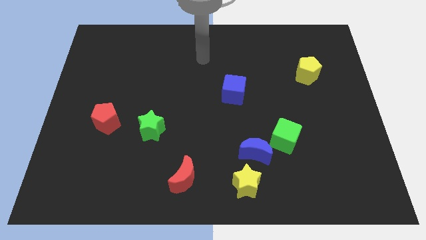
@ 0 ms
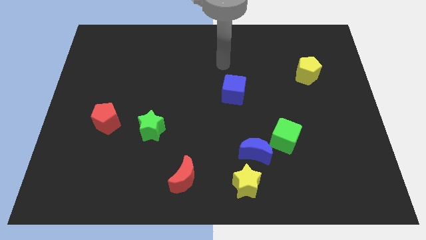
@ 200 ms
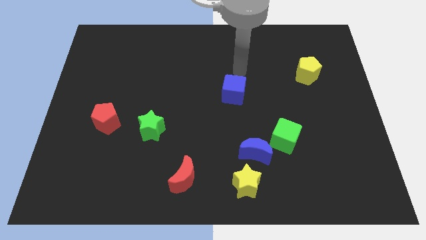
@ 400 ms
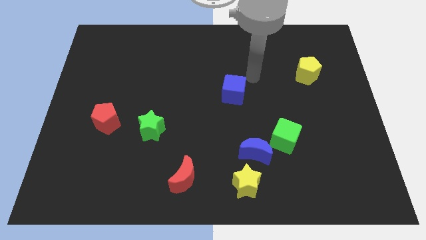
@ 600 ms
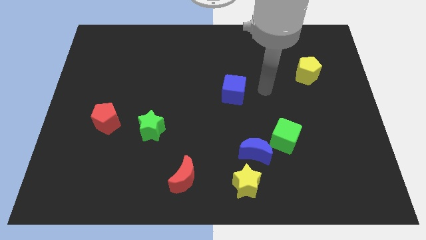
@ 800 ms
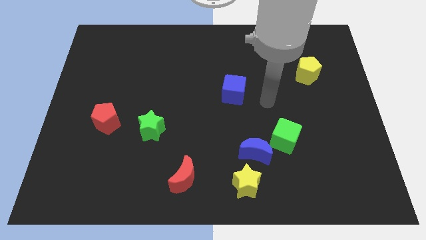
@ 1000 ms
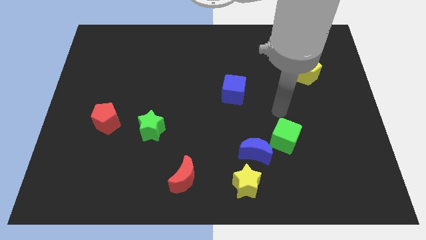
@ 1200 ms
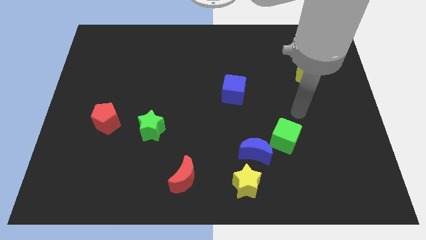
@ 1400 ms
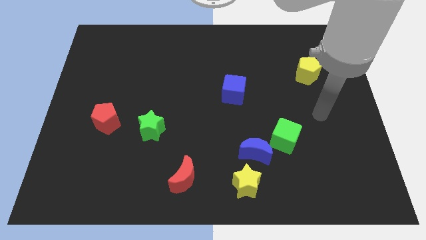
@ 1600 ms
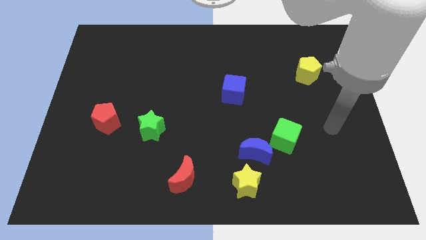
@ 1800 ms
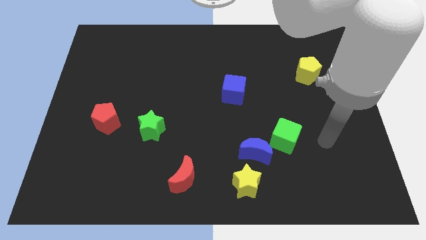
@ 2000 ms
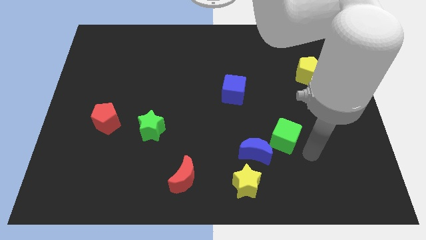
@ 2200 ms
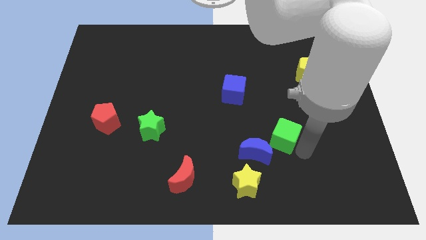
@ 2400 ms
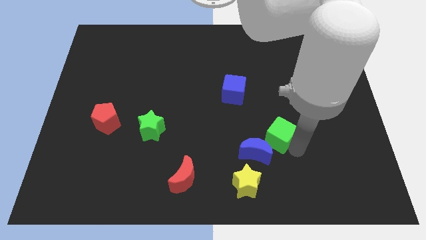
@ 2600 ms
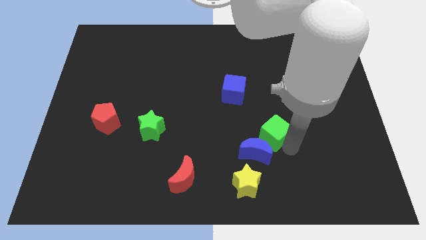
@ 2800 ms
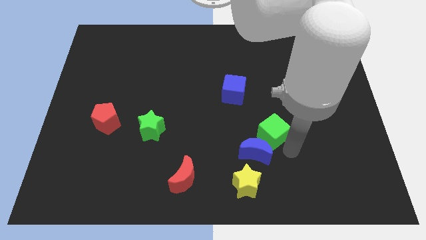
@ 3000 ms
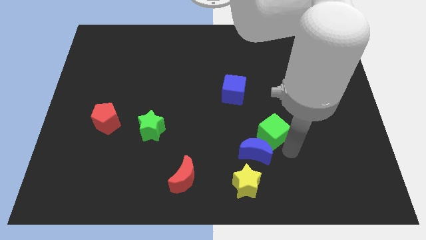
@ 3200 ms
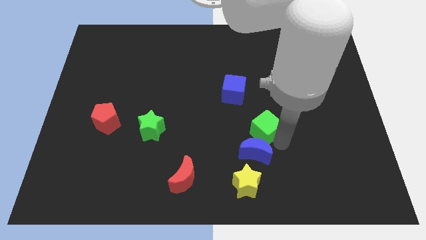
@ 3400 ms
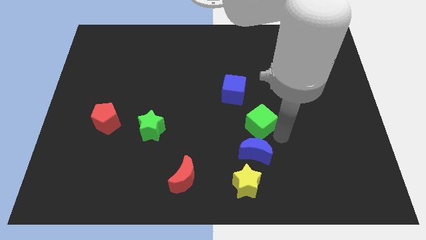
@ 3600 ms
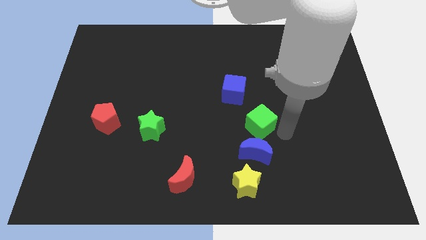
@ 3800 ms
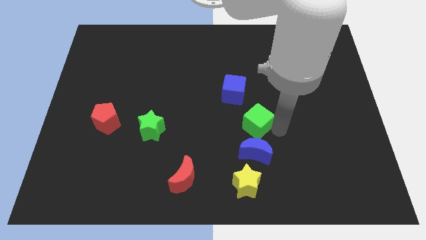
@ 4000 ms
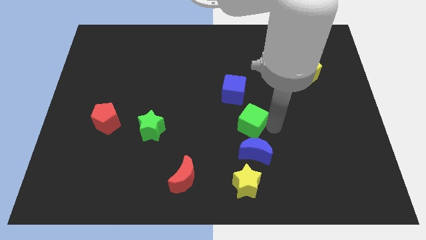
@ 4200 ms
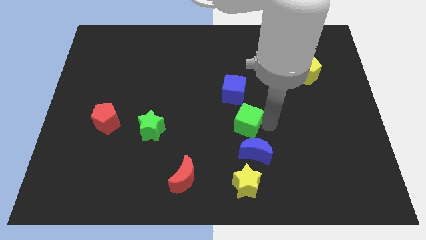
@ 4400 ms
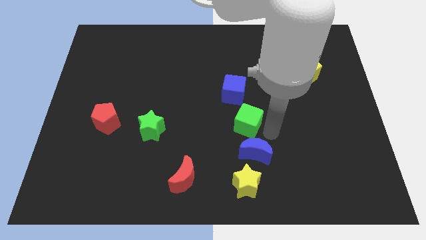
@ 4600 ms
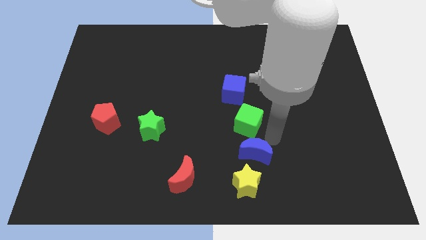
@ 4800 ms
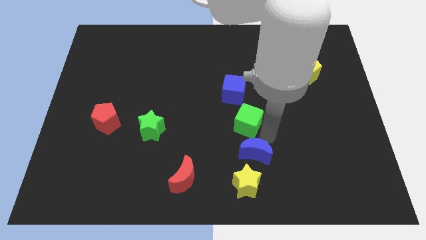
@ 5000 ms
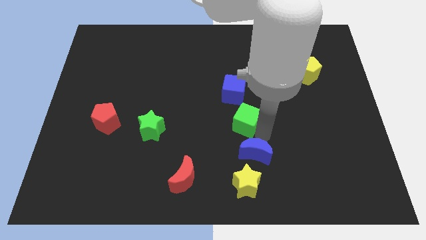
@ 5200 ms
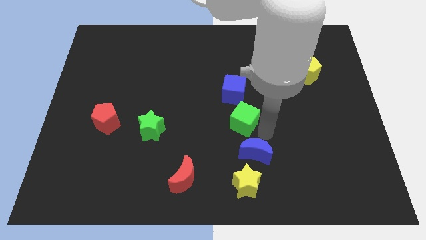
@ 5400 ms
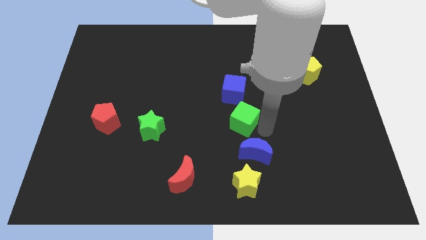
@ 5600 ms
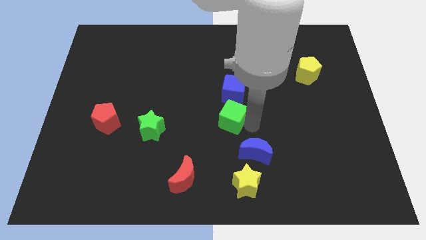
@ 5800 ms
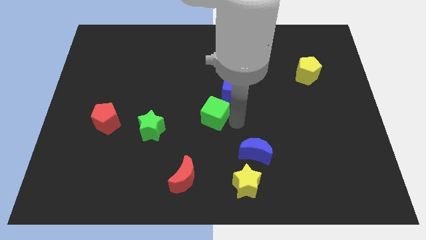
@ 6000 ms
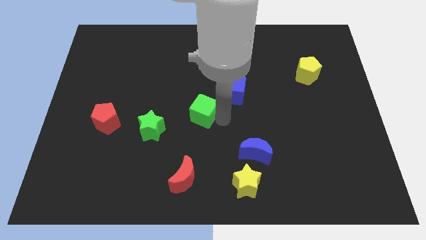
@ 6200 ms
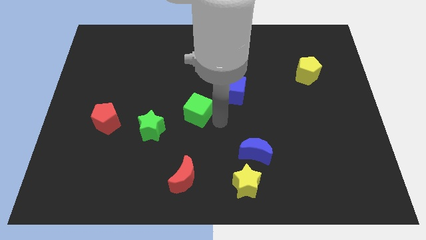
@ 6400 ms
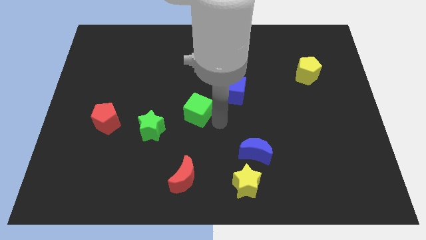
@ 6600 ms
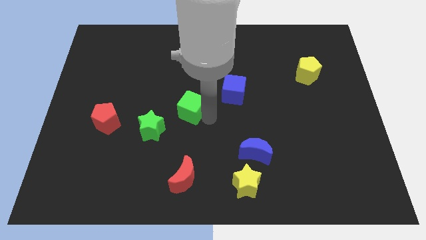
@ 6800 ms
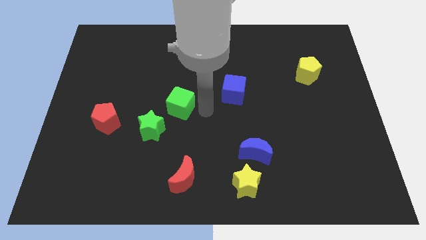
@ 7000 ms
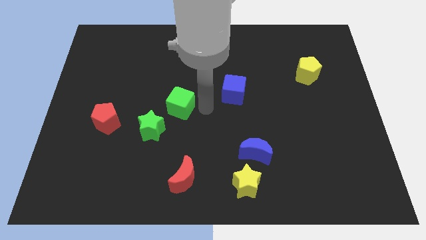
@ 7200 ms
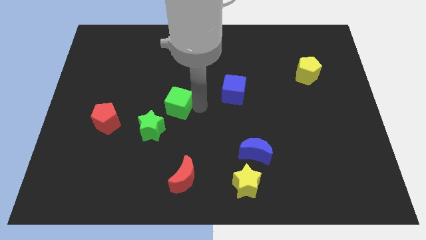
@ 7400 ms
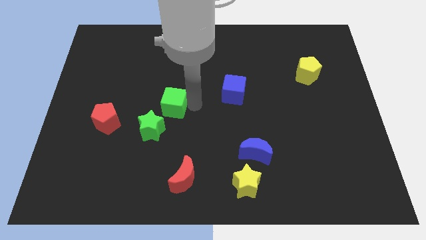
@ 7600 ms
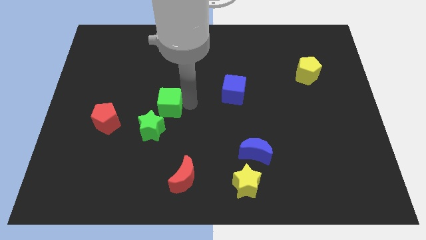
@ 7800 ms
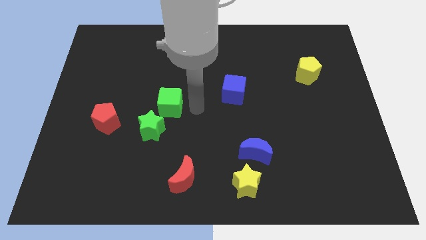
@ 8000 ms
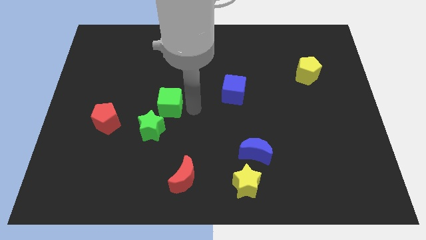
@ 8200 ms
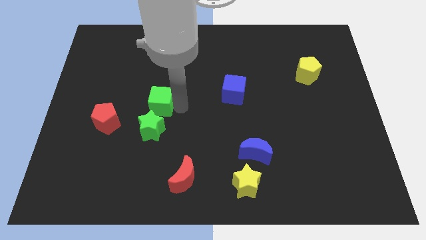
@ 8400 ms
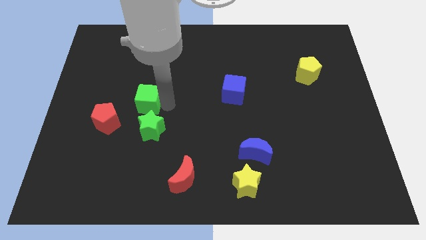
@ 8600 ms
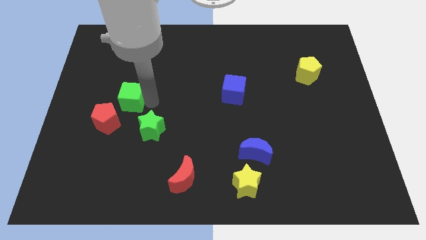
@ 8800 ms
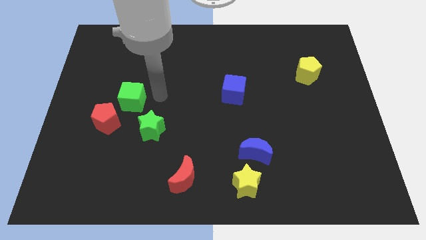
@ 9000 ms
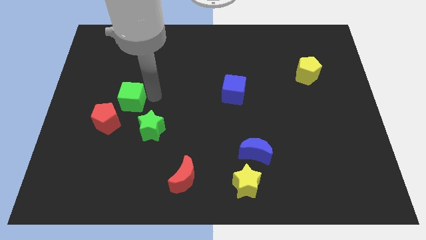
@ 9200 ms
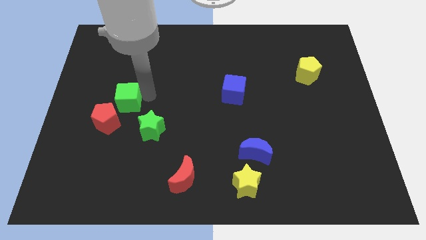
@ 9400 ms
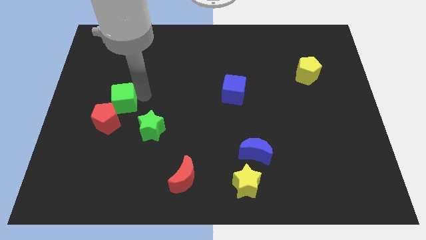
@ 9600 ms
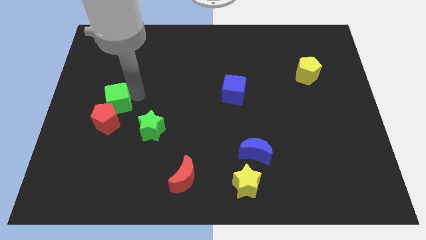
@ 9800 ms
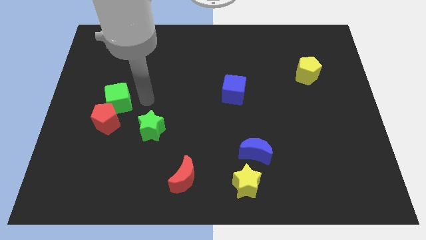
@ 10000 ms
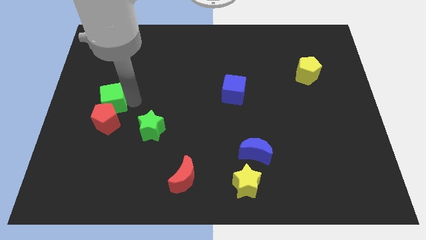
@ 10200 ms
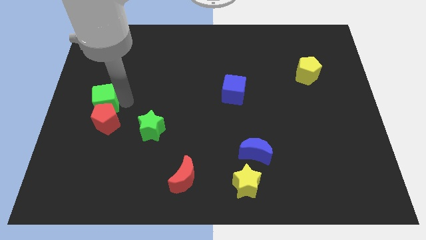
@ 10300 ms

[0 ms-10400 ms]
put the green cube to the center left

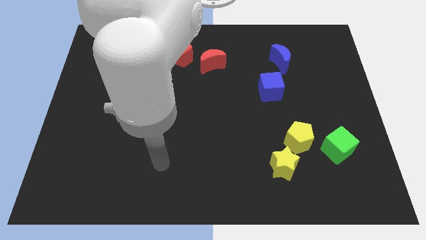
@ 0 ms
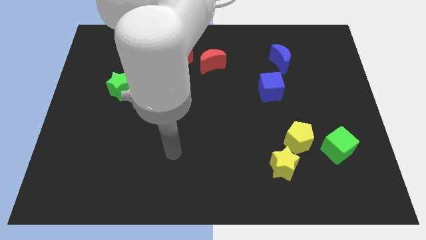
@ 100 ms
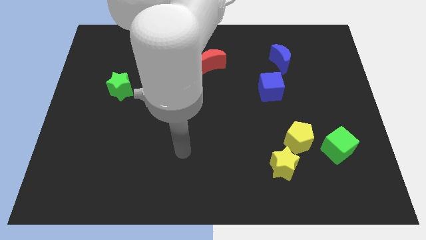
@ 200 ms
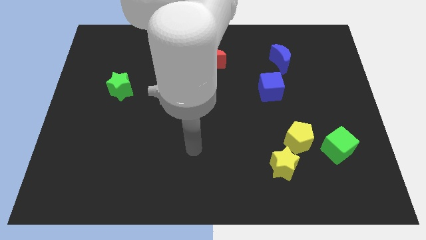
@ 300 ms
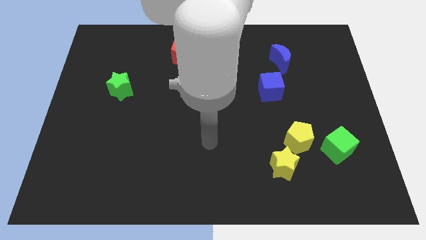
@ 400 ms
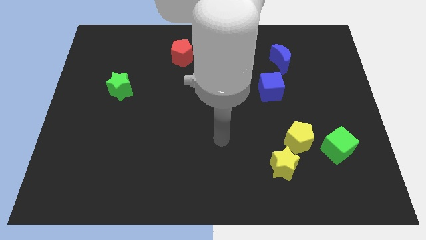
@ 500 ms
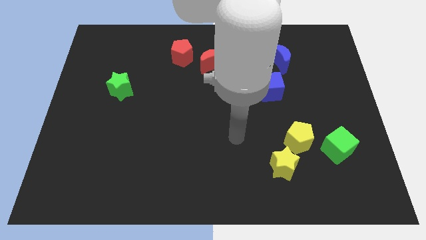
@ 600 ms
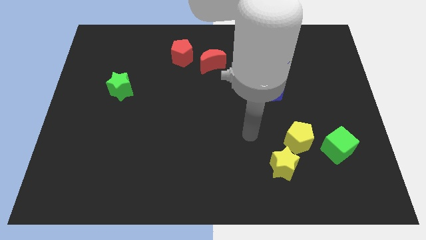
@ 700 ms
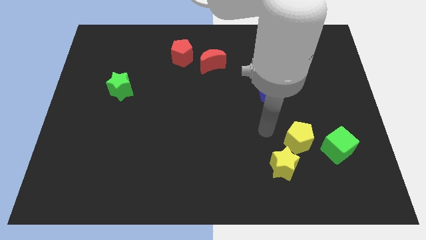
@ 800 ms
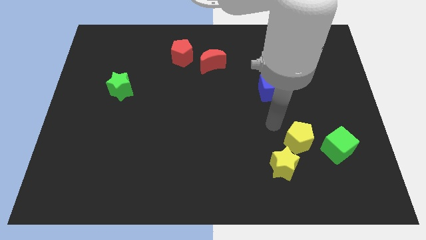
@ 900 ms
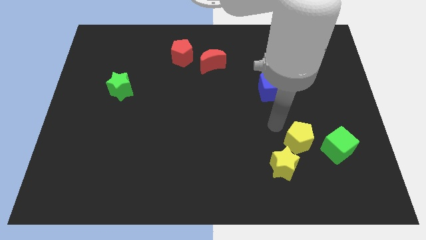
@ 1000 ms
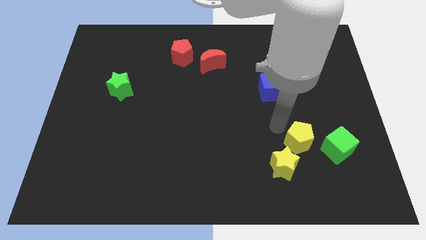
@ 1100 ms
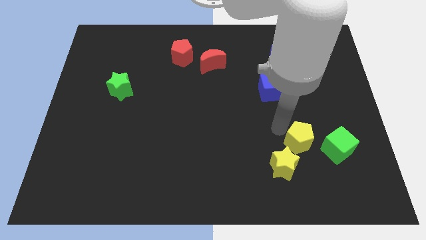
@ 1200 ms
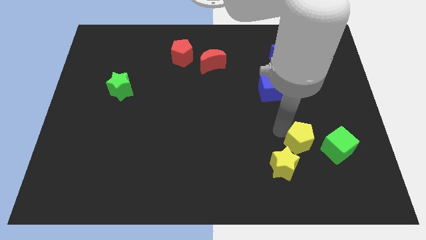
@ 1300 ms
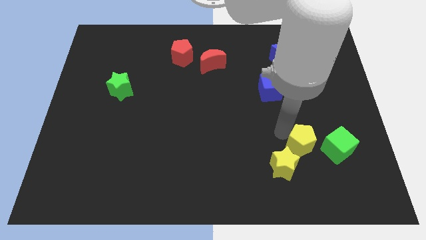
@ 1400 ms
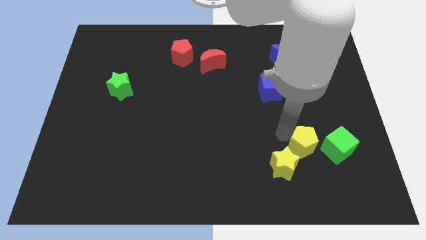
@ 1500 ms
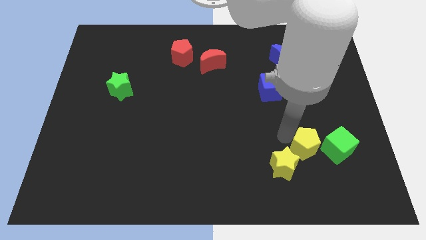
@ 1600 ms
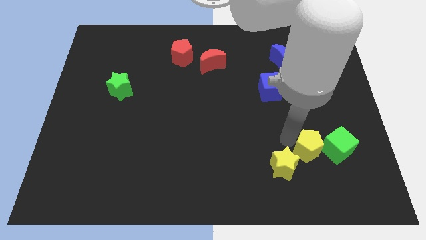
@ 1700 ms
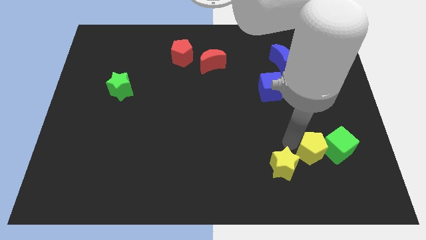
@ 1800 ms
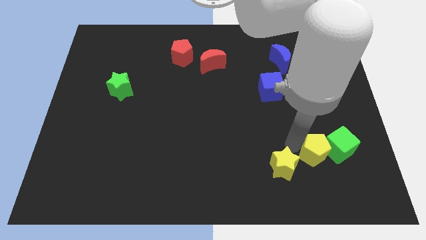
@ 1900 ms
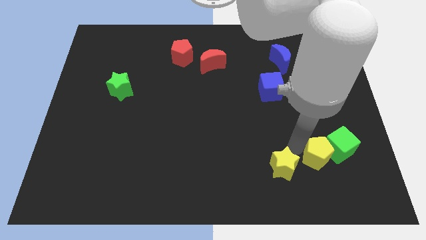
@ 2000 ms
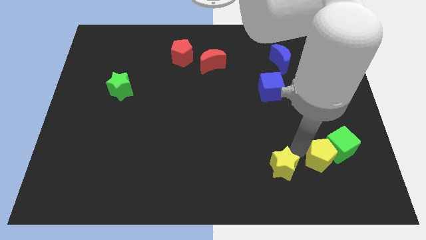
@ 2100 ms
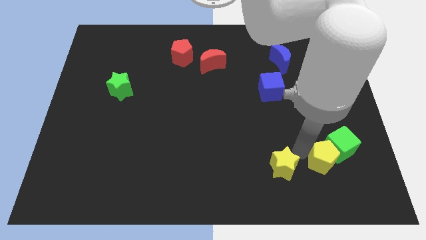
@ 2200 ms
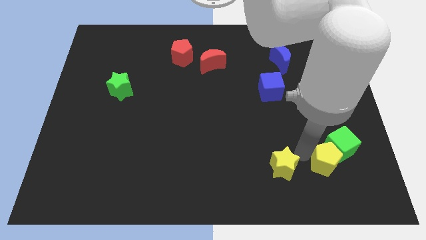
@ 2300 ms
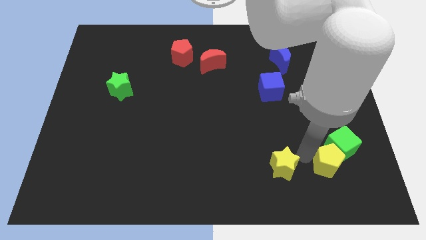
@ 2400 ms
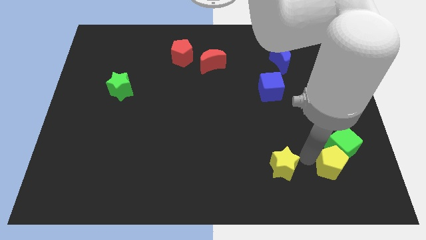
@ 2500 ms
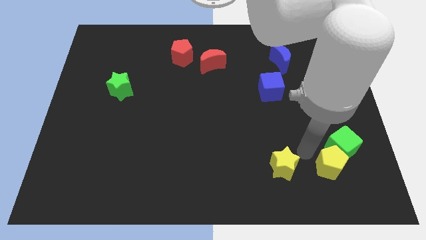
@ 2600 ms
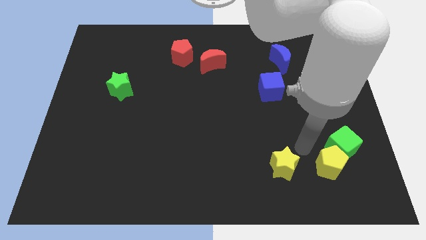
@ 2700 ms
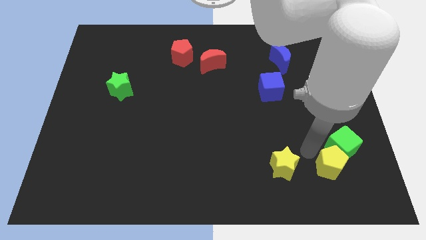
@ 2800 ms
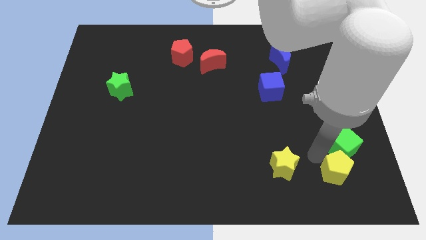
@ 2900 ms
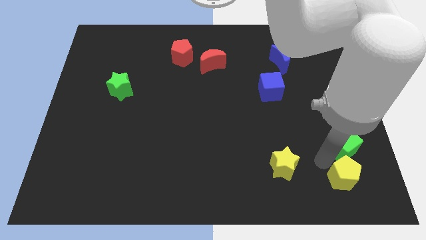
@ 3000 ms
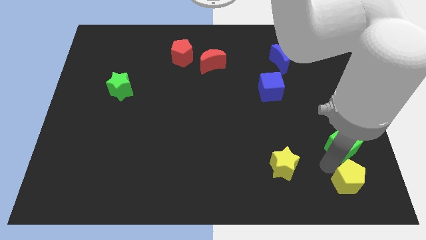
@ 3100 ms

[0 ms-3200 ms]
move the yellow pentagon to the lower right corner
